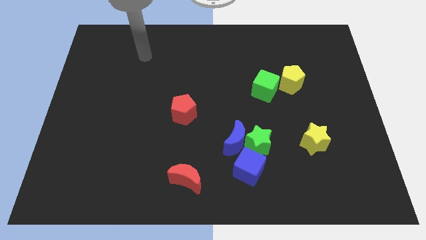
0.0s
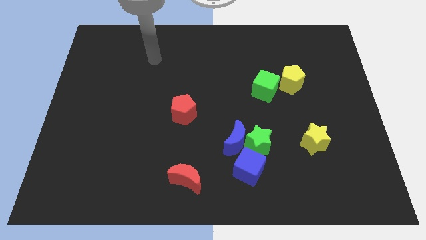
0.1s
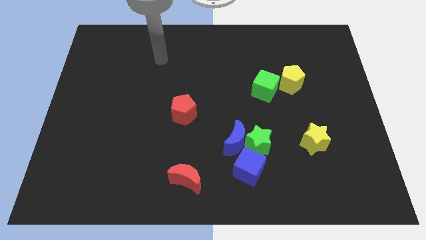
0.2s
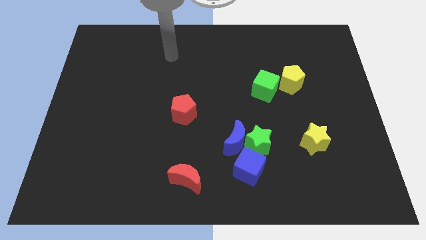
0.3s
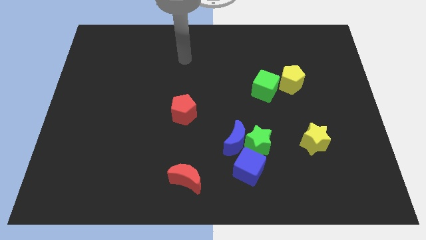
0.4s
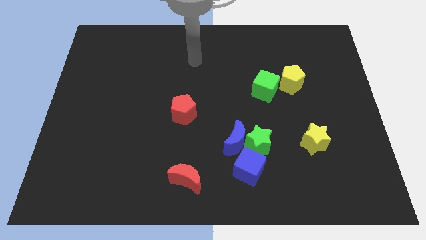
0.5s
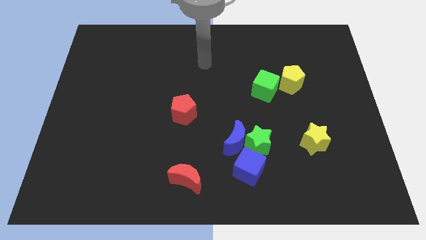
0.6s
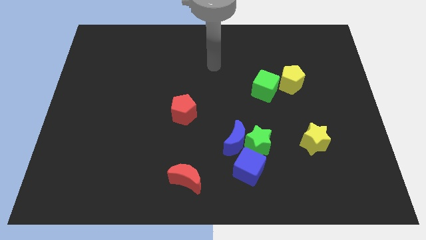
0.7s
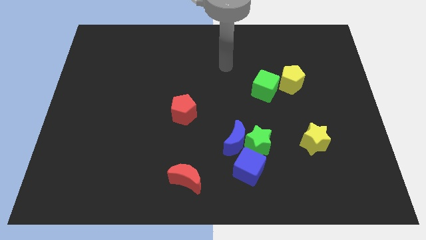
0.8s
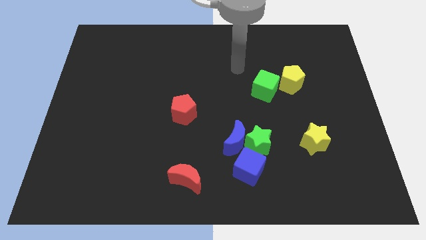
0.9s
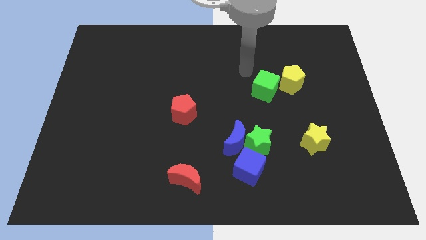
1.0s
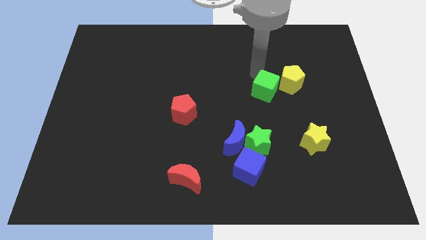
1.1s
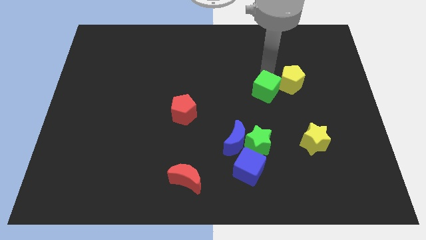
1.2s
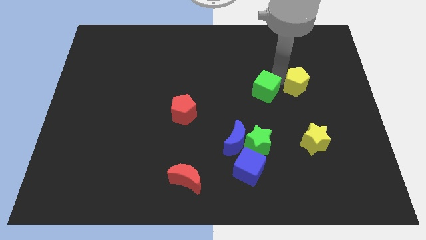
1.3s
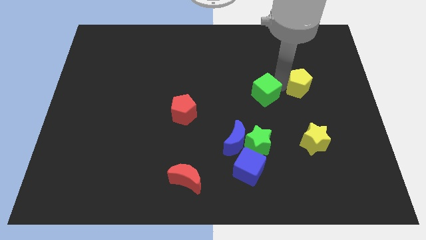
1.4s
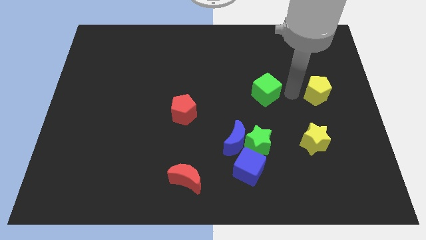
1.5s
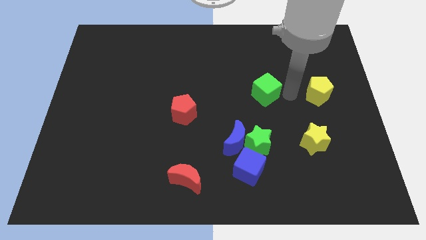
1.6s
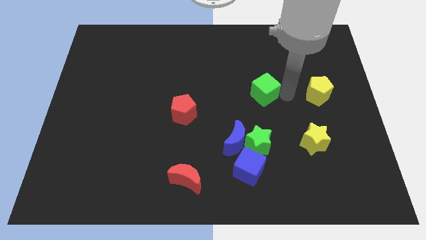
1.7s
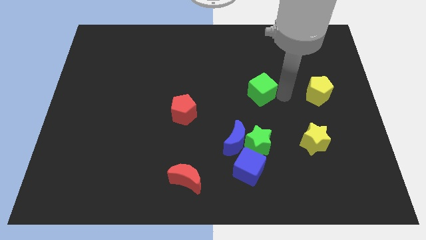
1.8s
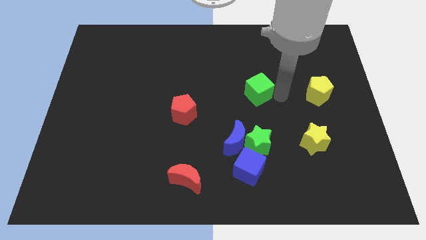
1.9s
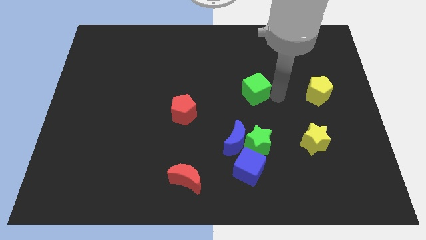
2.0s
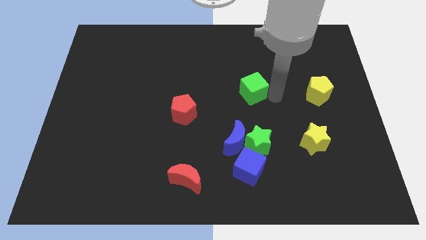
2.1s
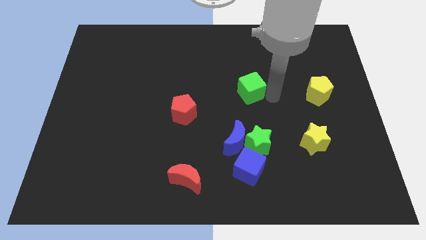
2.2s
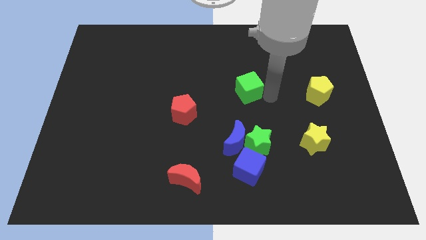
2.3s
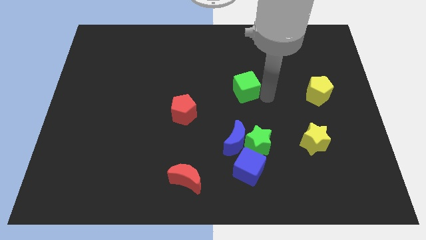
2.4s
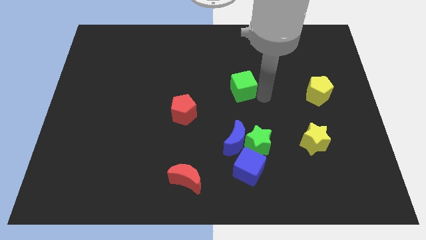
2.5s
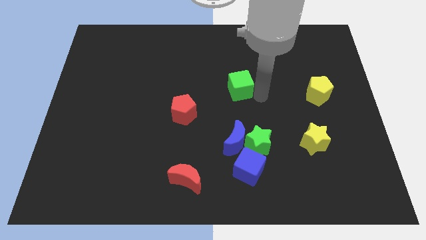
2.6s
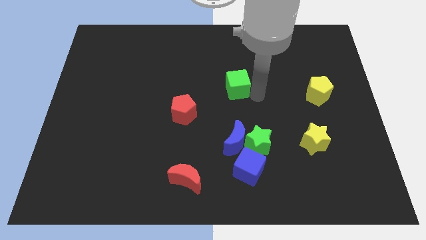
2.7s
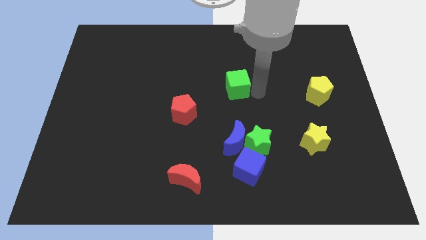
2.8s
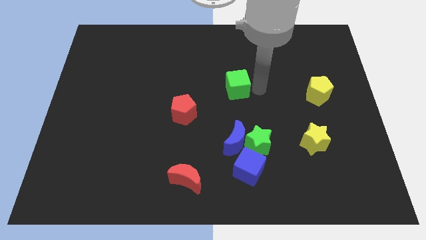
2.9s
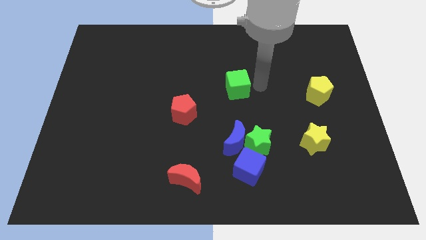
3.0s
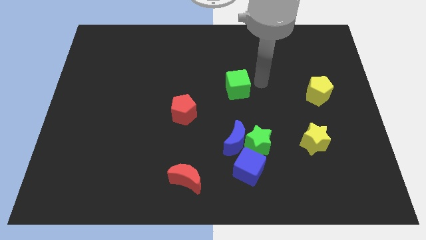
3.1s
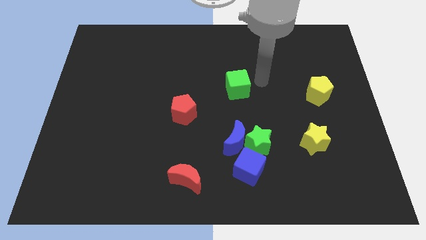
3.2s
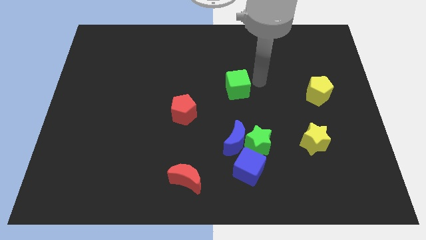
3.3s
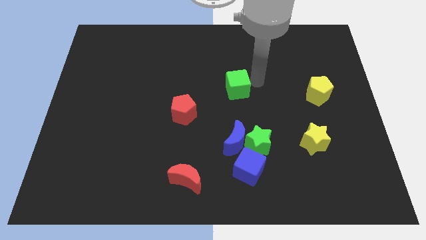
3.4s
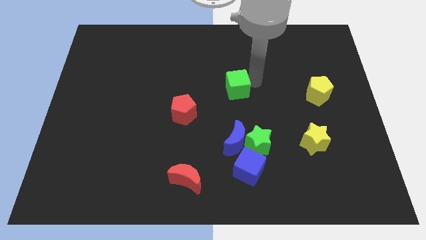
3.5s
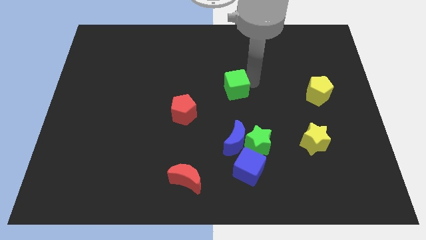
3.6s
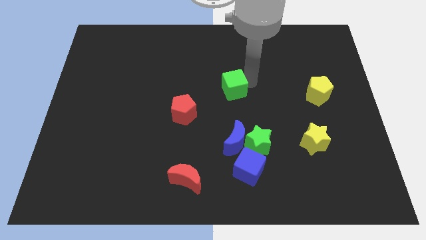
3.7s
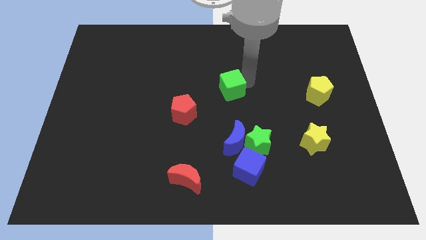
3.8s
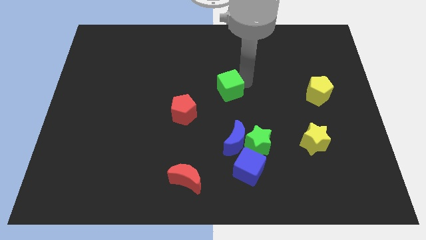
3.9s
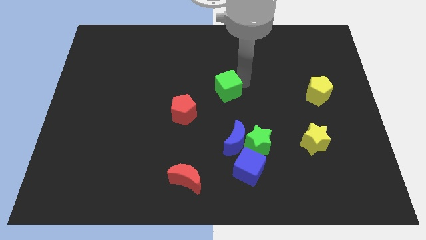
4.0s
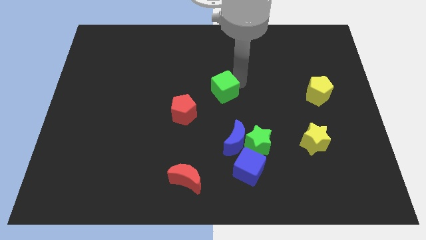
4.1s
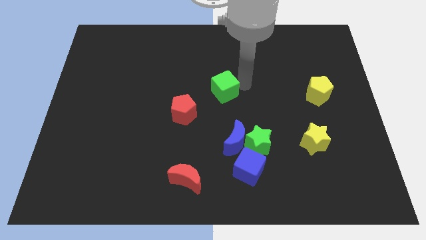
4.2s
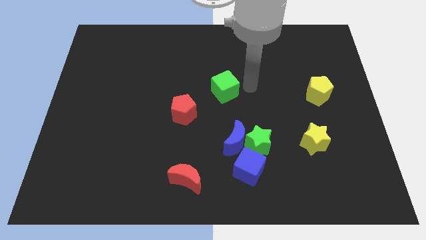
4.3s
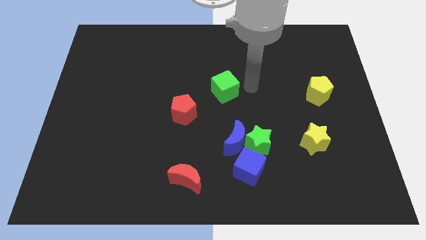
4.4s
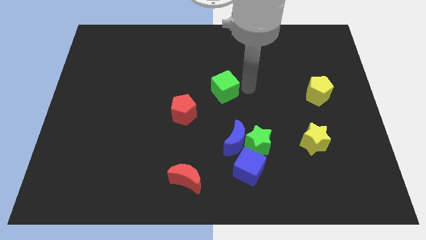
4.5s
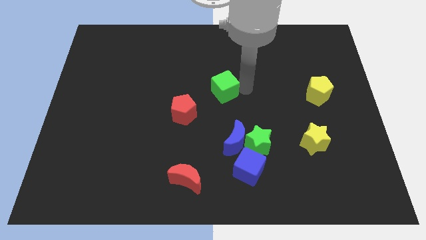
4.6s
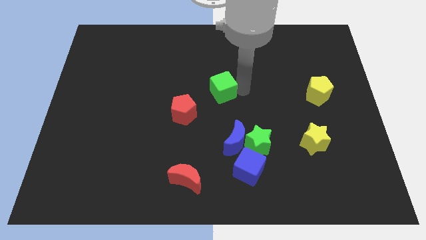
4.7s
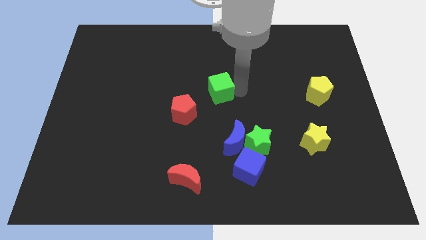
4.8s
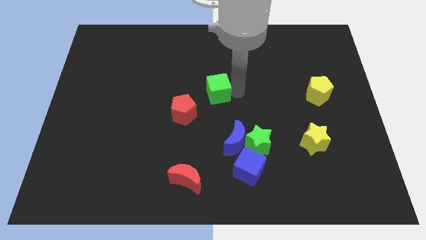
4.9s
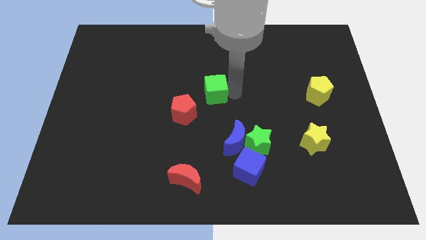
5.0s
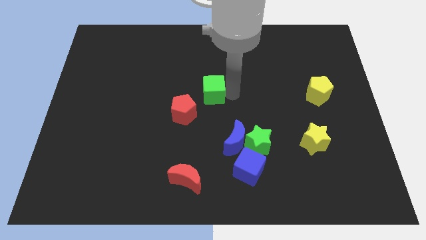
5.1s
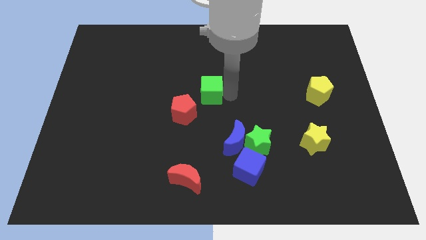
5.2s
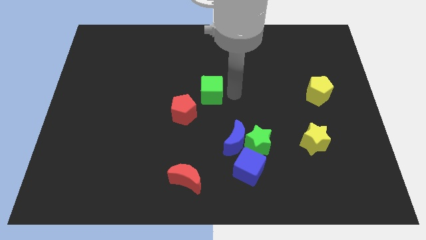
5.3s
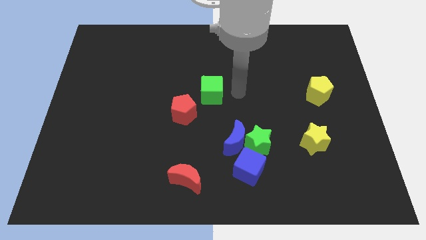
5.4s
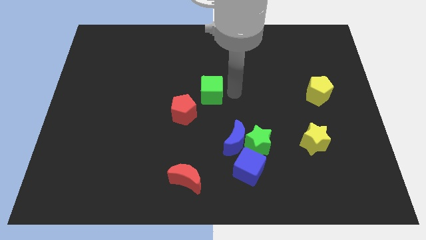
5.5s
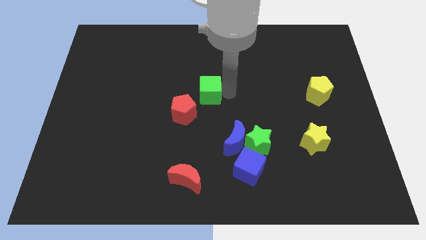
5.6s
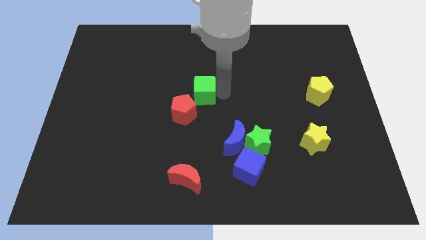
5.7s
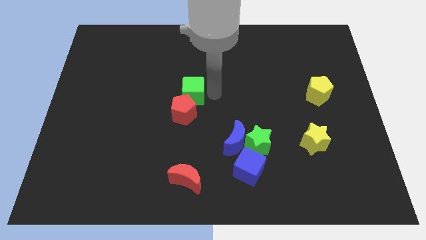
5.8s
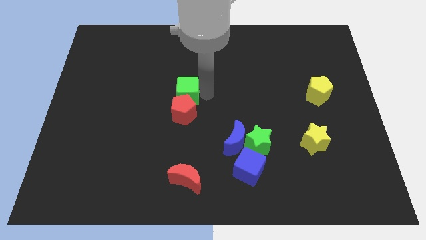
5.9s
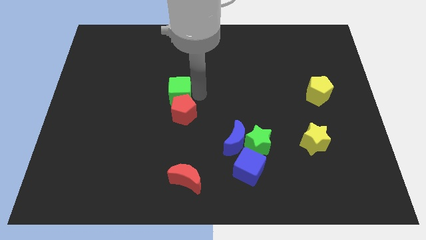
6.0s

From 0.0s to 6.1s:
push the green cube left

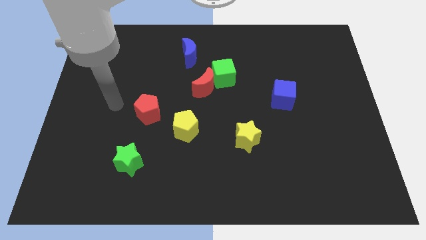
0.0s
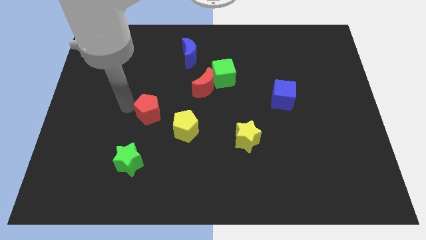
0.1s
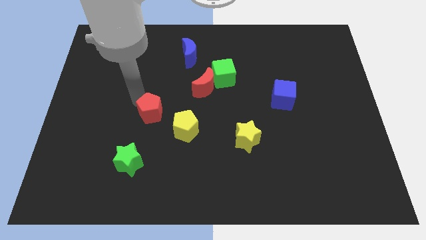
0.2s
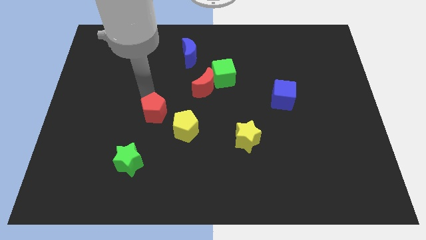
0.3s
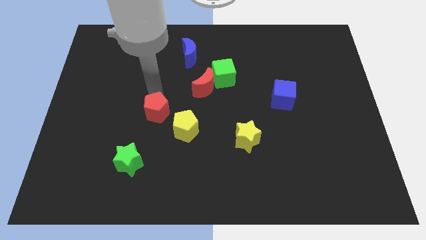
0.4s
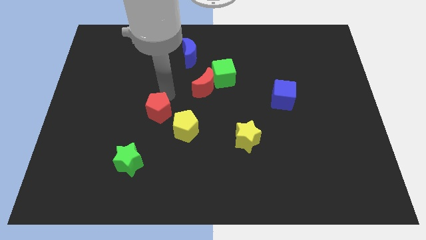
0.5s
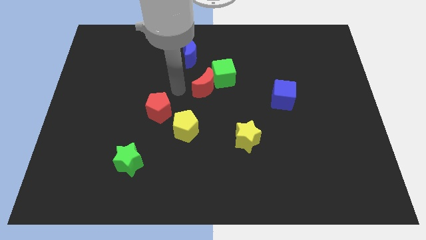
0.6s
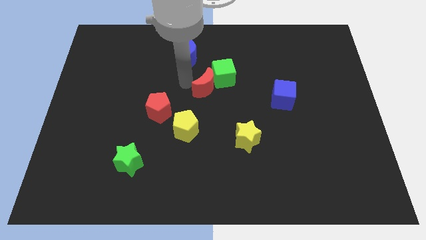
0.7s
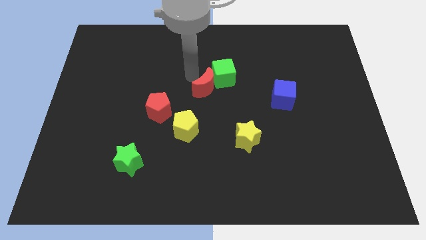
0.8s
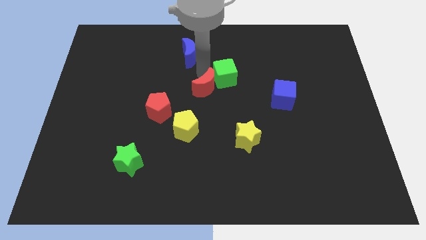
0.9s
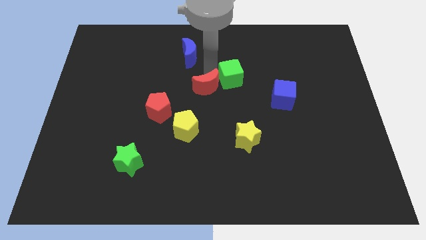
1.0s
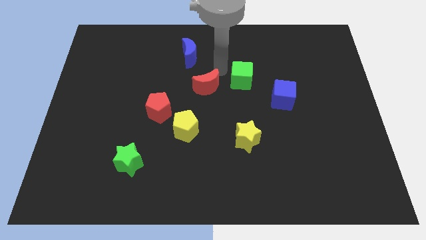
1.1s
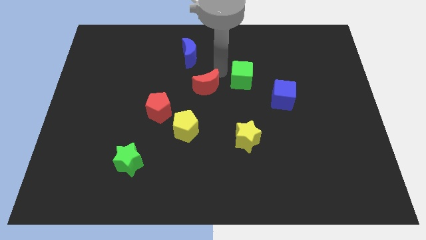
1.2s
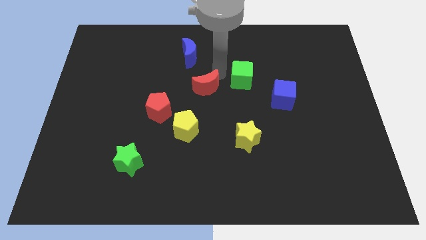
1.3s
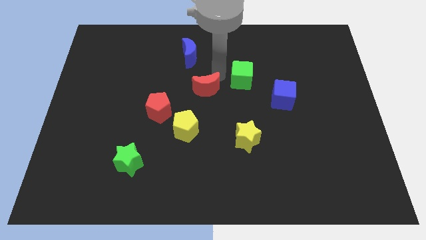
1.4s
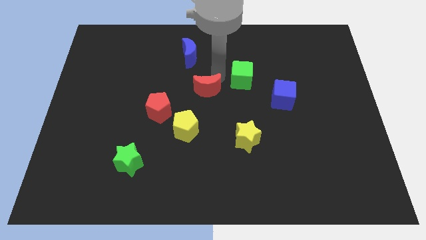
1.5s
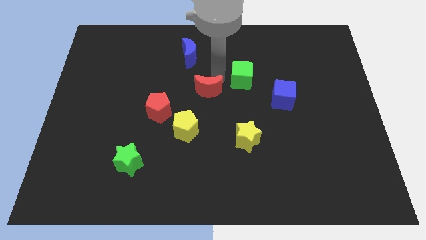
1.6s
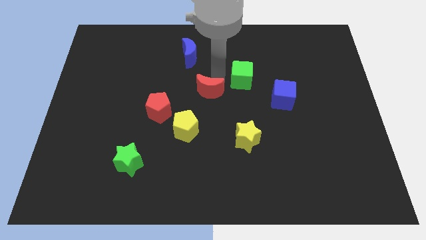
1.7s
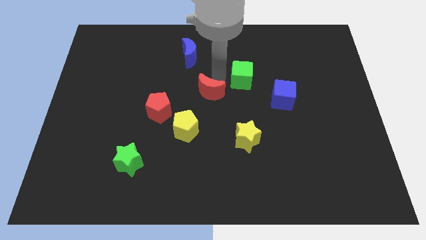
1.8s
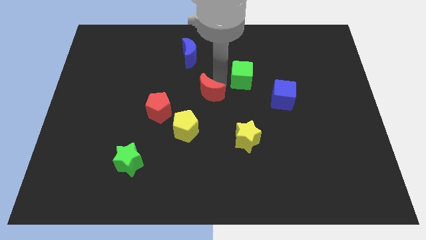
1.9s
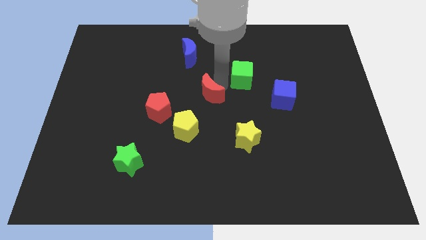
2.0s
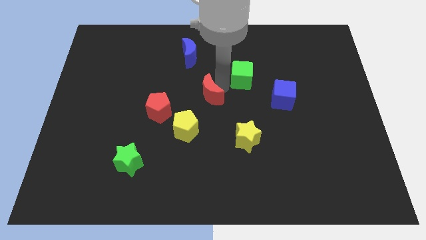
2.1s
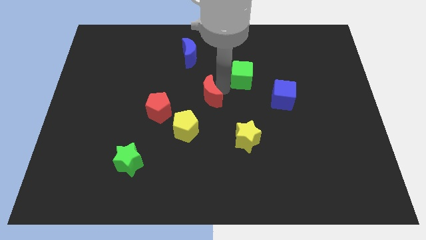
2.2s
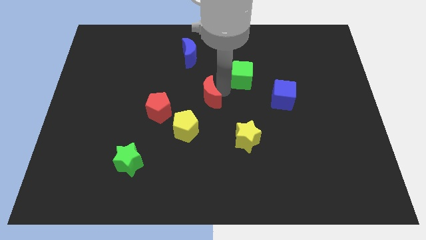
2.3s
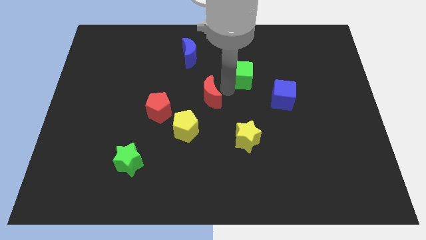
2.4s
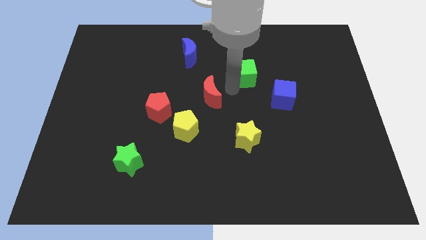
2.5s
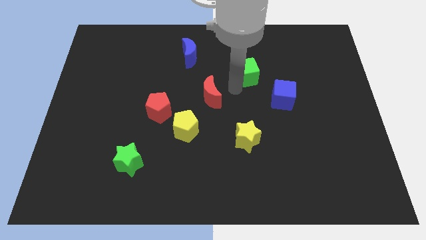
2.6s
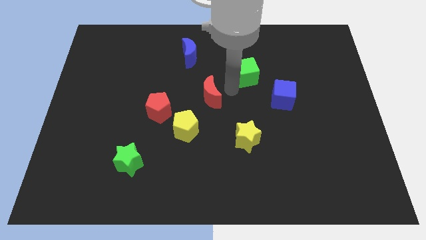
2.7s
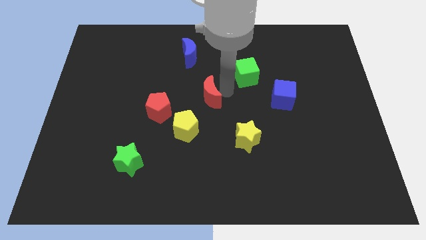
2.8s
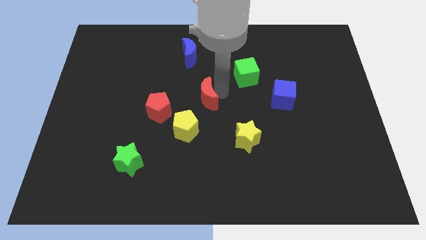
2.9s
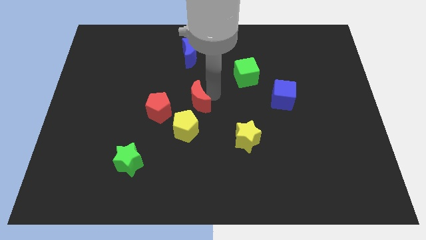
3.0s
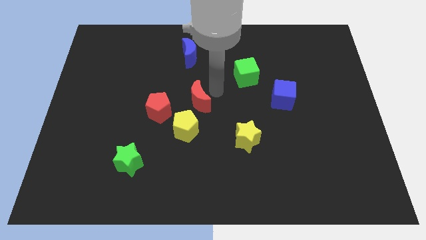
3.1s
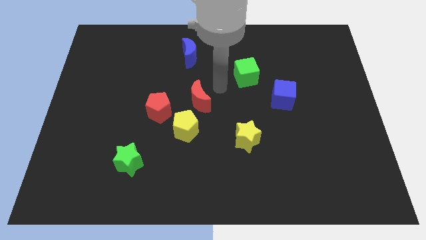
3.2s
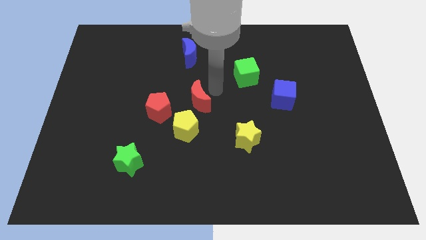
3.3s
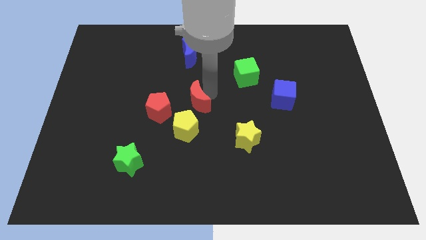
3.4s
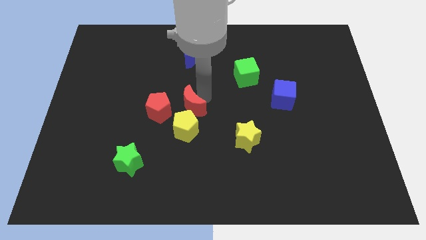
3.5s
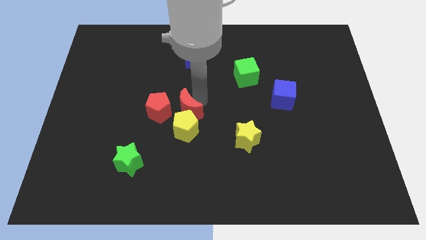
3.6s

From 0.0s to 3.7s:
slightly slide the red moon downwards and left
